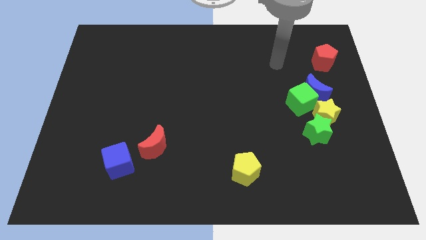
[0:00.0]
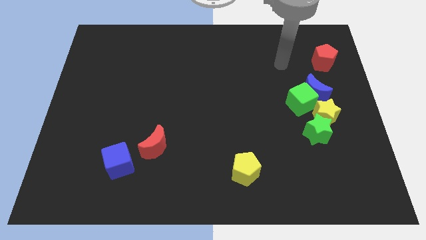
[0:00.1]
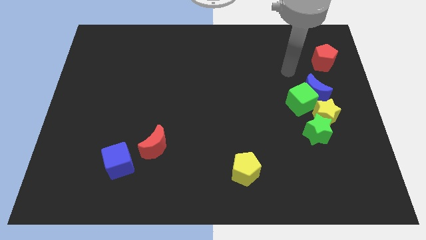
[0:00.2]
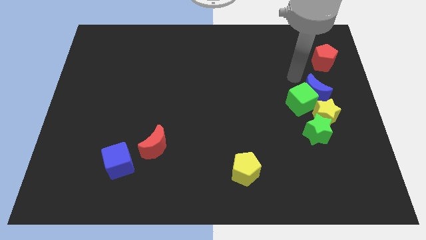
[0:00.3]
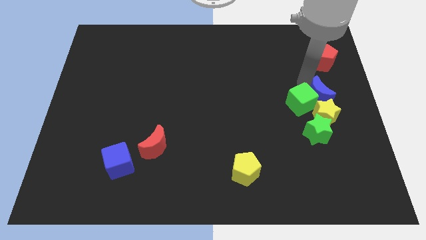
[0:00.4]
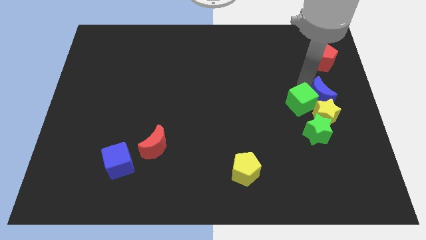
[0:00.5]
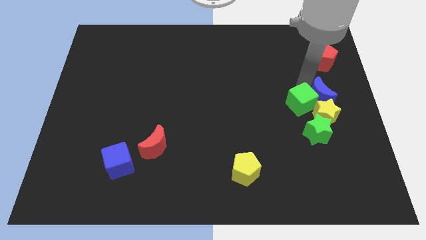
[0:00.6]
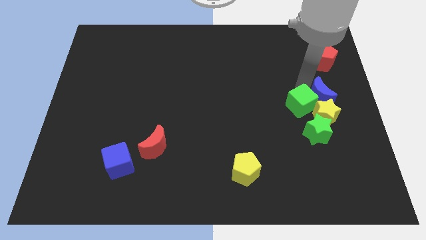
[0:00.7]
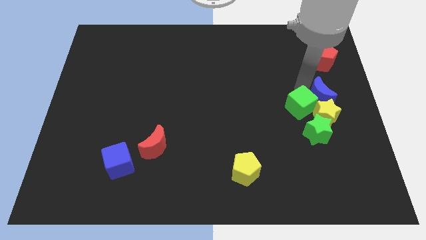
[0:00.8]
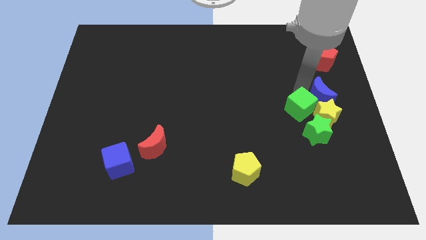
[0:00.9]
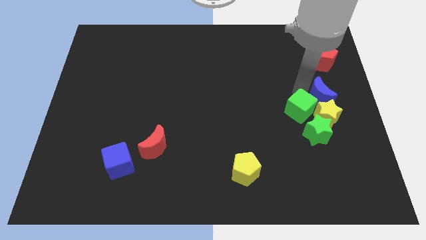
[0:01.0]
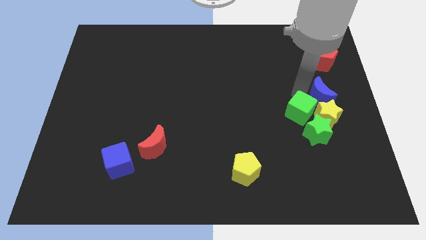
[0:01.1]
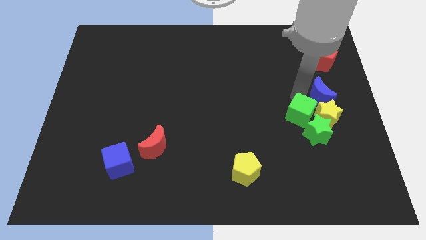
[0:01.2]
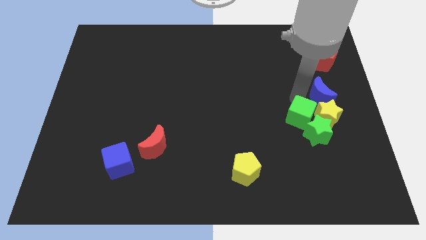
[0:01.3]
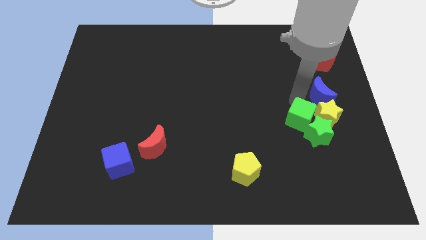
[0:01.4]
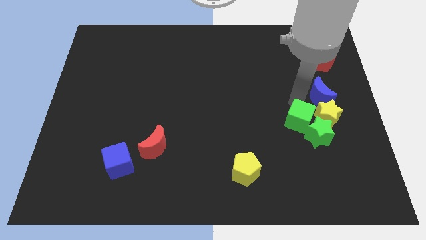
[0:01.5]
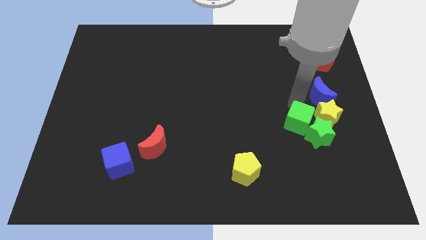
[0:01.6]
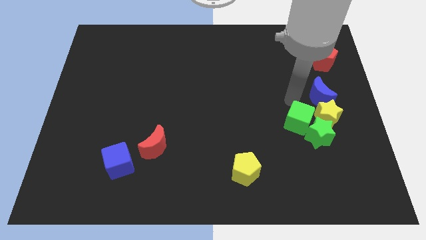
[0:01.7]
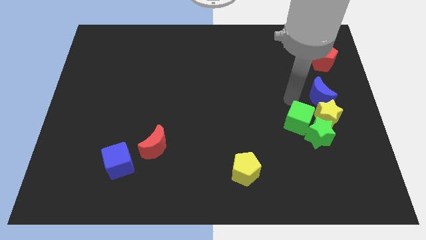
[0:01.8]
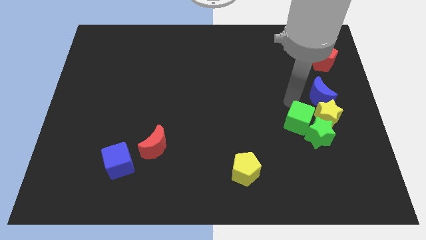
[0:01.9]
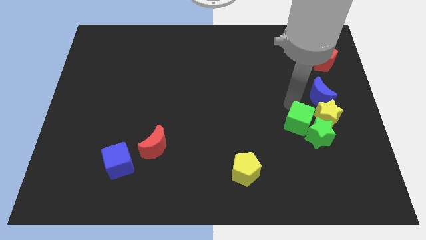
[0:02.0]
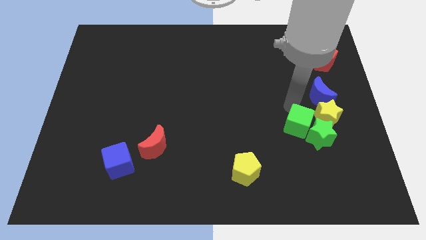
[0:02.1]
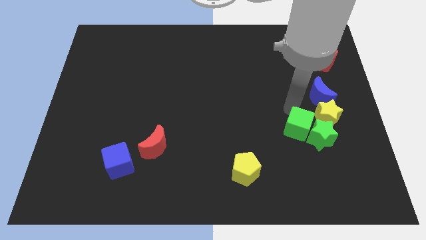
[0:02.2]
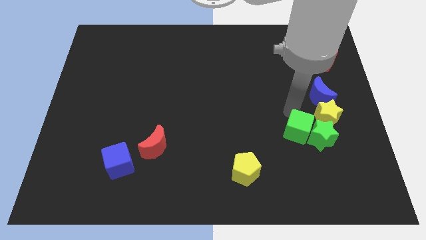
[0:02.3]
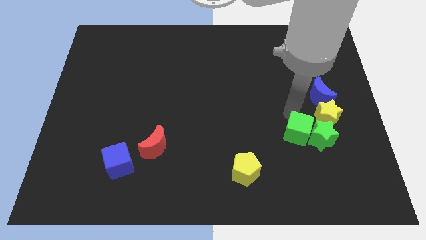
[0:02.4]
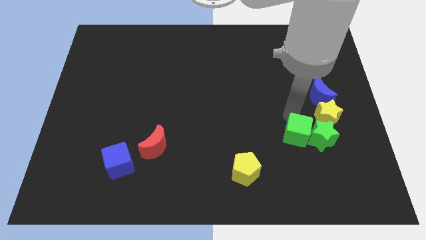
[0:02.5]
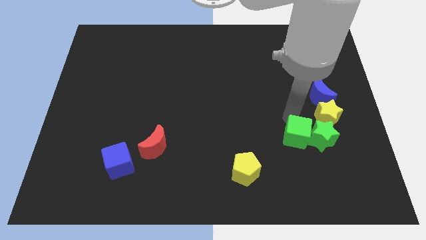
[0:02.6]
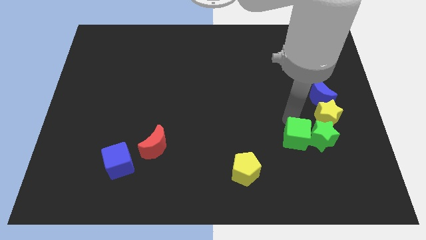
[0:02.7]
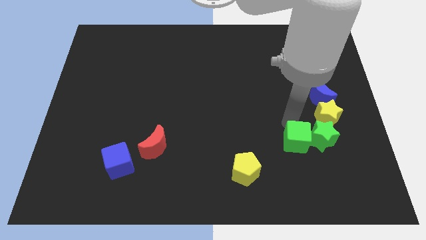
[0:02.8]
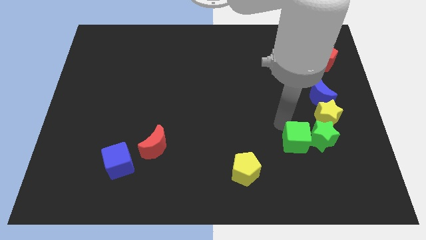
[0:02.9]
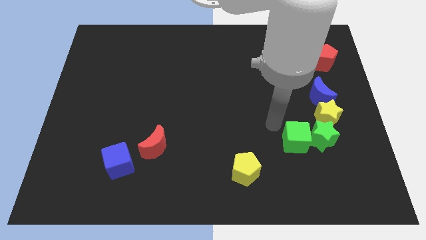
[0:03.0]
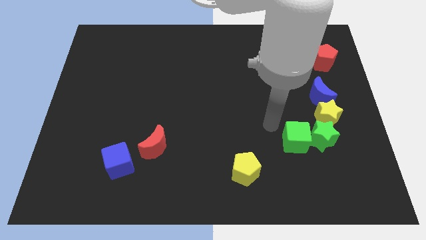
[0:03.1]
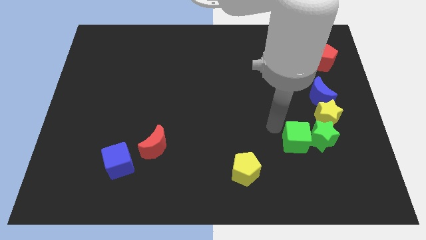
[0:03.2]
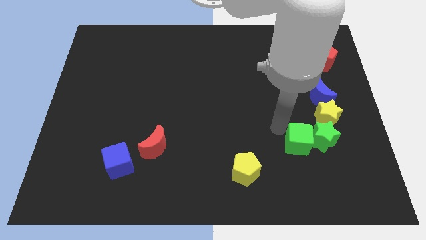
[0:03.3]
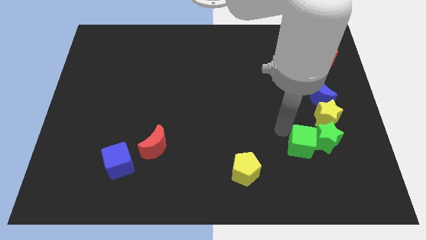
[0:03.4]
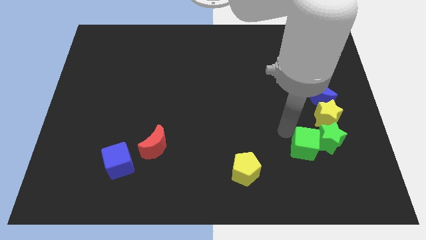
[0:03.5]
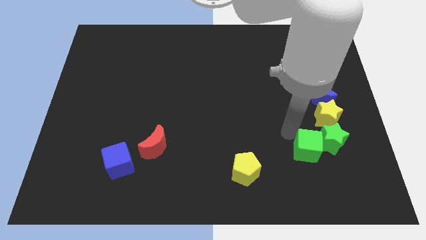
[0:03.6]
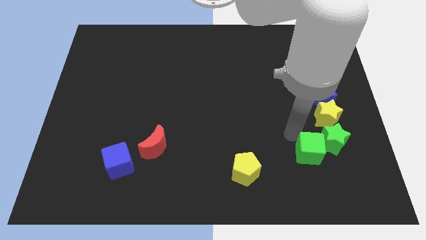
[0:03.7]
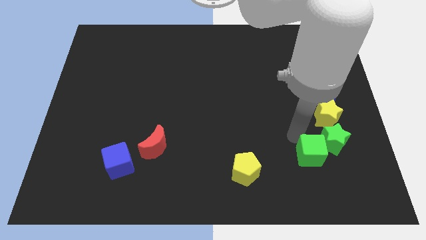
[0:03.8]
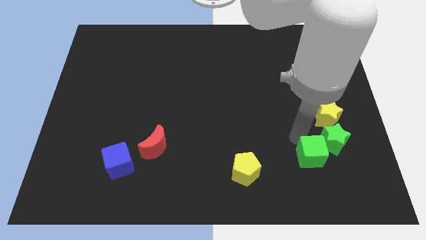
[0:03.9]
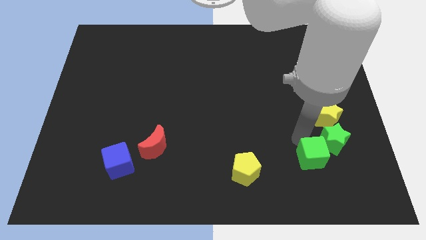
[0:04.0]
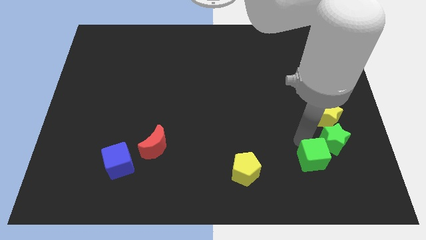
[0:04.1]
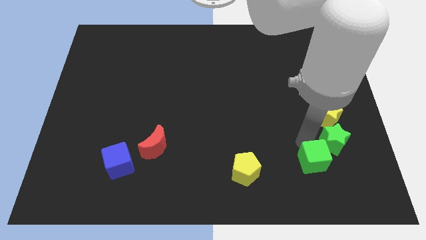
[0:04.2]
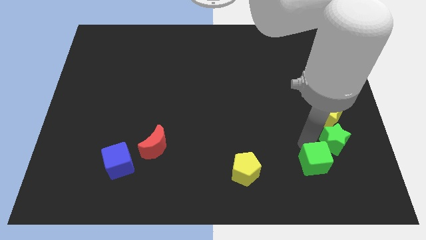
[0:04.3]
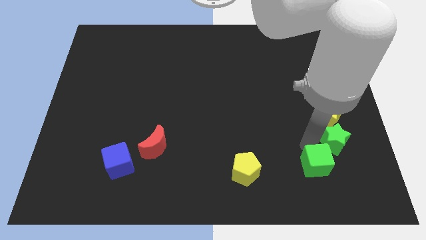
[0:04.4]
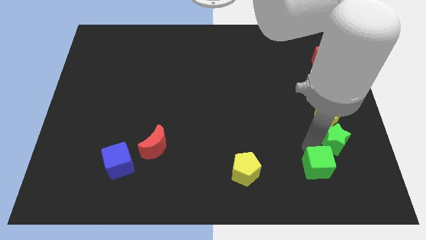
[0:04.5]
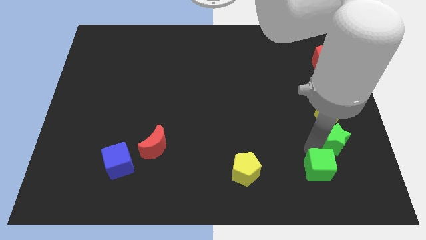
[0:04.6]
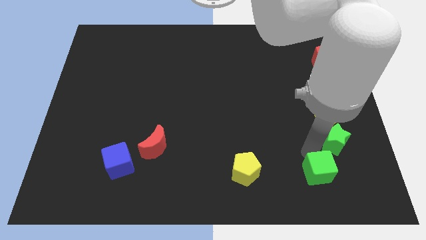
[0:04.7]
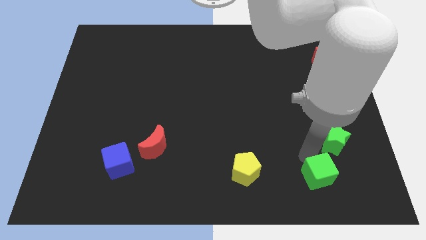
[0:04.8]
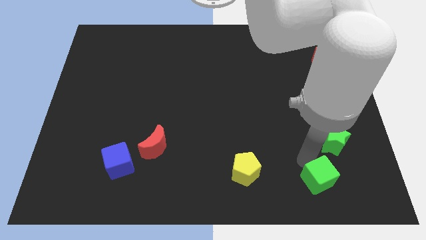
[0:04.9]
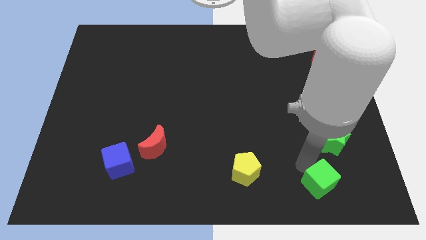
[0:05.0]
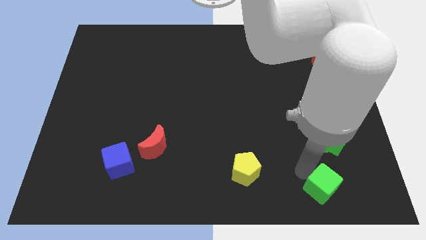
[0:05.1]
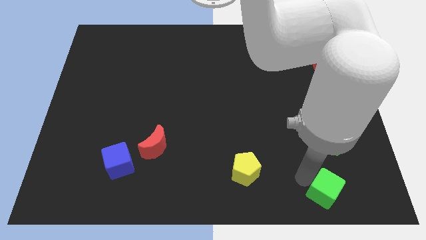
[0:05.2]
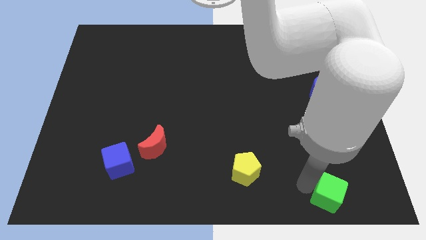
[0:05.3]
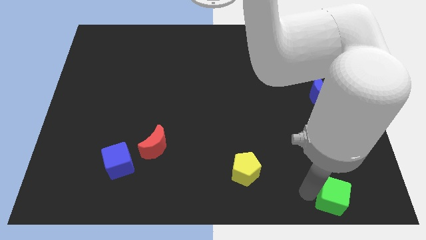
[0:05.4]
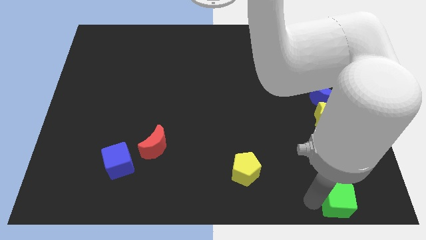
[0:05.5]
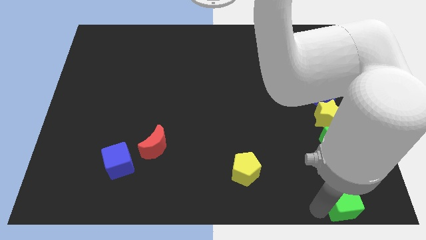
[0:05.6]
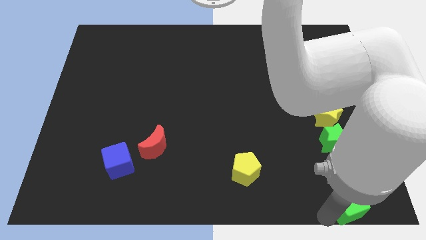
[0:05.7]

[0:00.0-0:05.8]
put the green cube to the bottom right

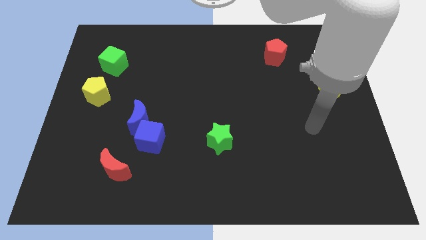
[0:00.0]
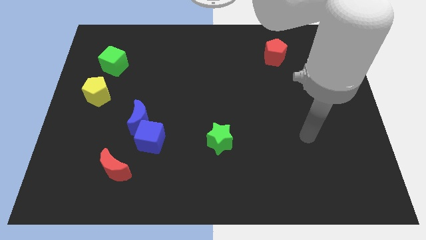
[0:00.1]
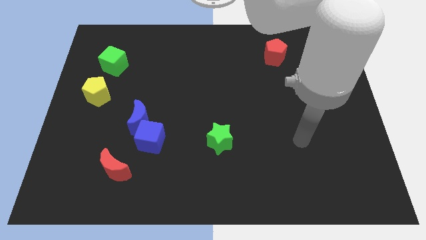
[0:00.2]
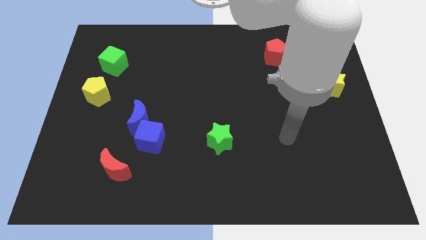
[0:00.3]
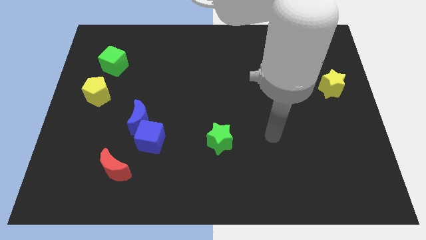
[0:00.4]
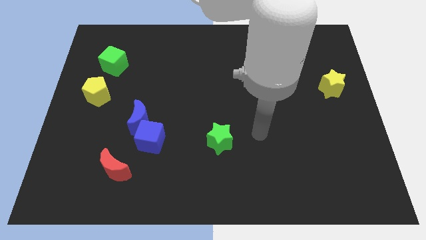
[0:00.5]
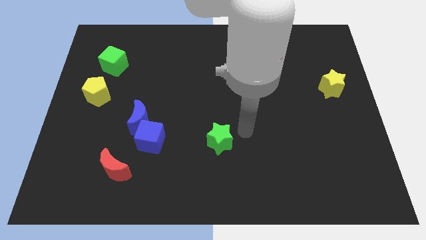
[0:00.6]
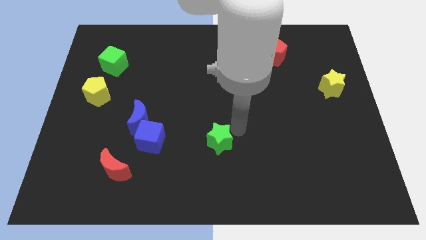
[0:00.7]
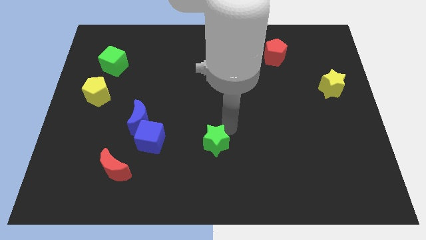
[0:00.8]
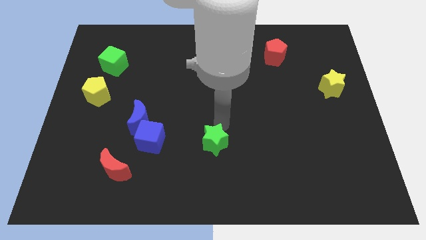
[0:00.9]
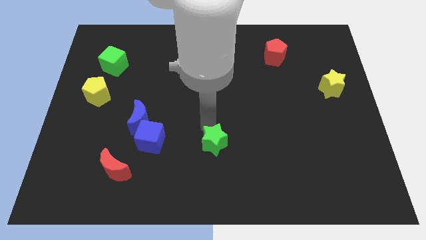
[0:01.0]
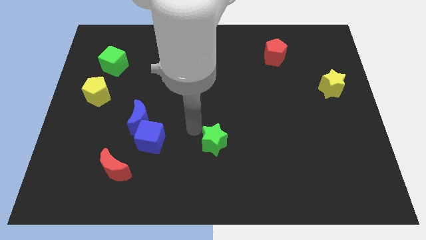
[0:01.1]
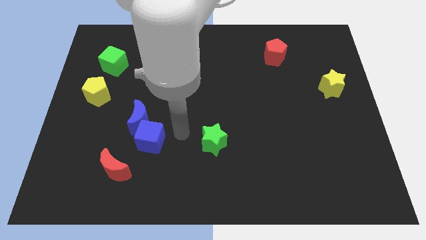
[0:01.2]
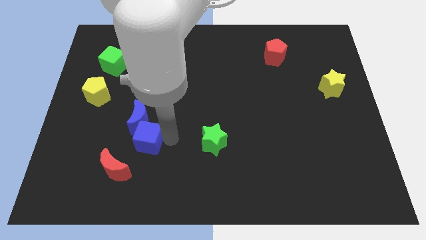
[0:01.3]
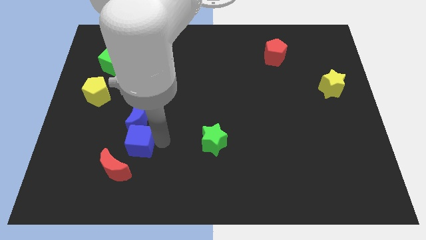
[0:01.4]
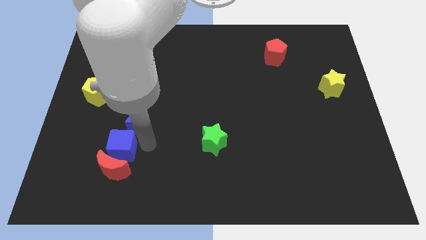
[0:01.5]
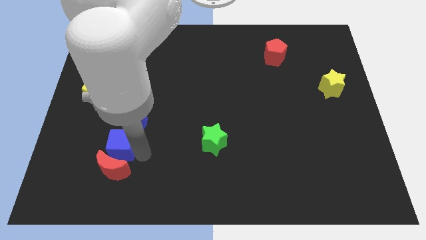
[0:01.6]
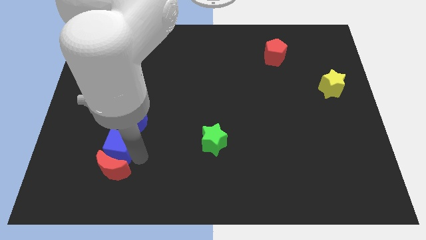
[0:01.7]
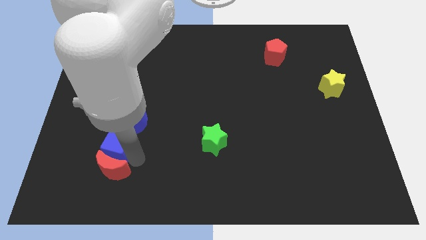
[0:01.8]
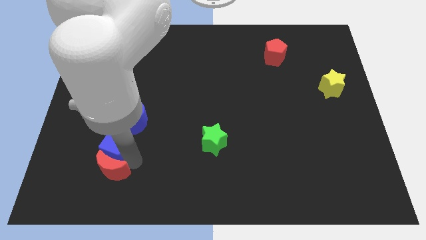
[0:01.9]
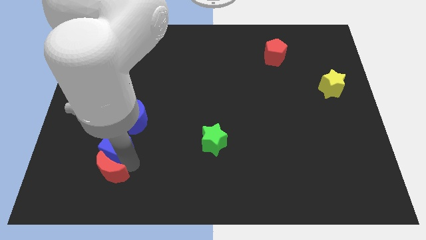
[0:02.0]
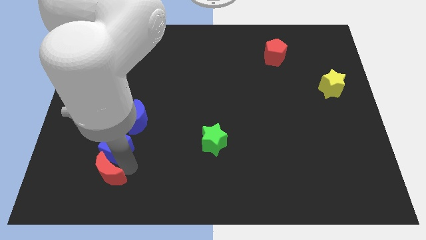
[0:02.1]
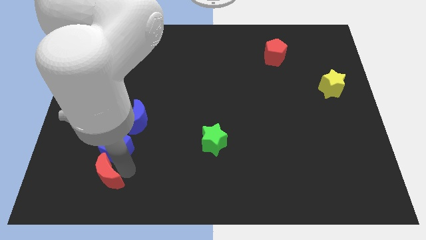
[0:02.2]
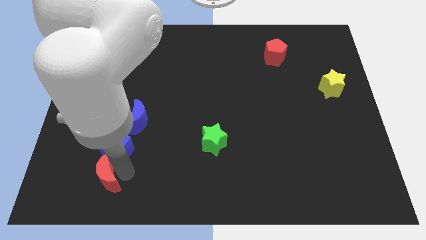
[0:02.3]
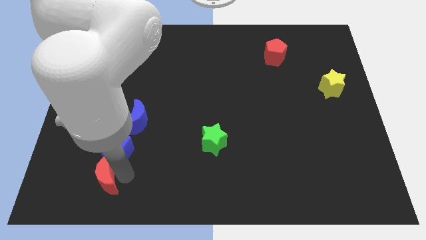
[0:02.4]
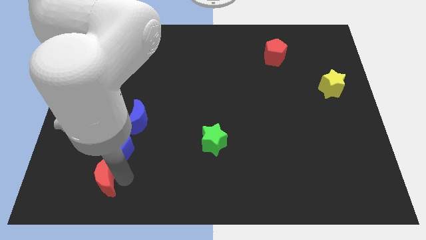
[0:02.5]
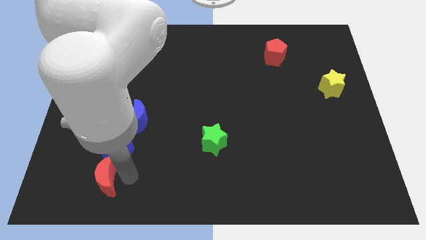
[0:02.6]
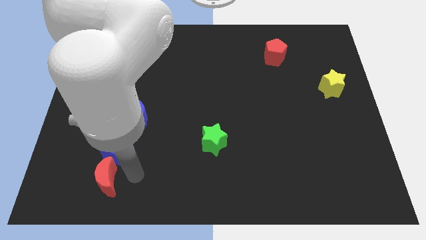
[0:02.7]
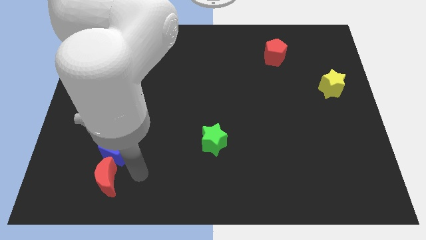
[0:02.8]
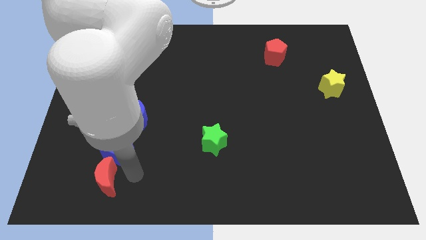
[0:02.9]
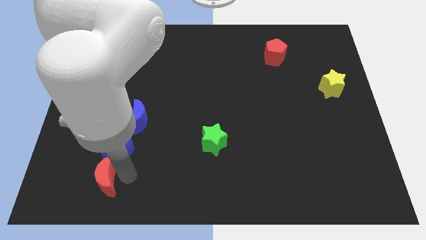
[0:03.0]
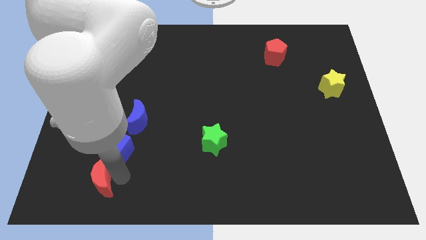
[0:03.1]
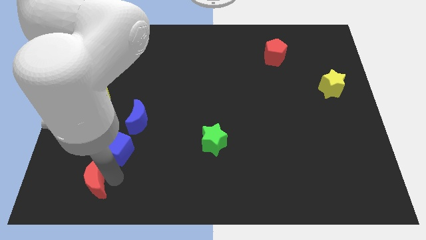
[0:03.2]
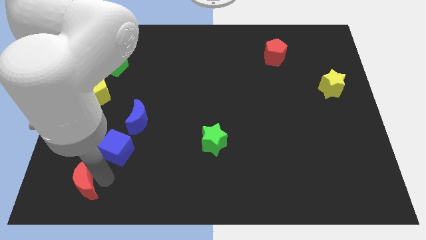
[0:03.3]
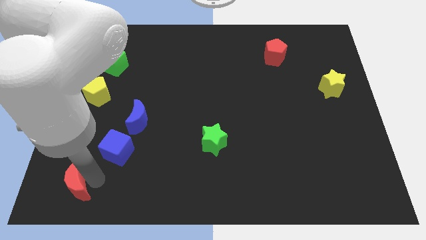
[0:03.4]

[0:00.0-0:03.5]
slide the red moon to the lower left corner
